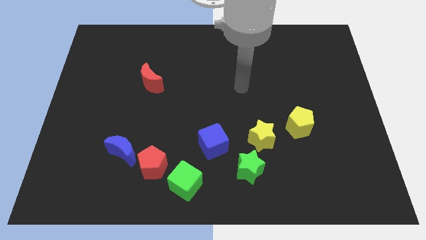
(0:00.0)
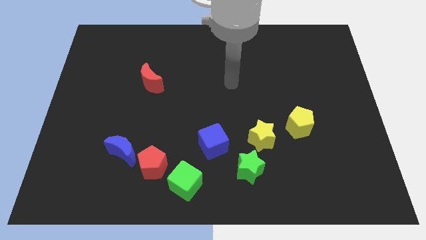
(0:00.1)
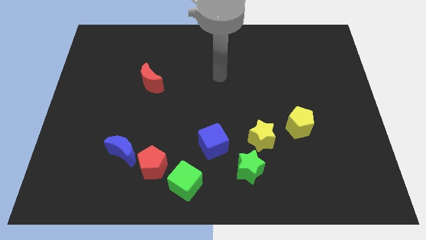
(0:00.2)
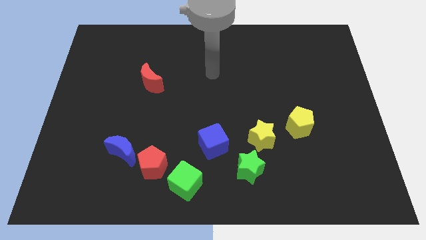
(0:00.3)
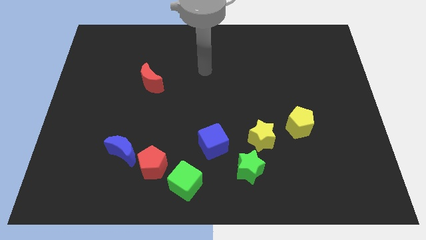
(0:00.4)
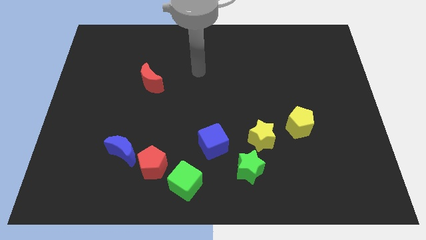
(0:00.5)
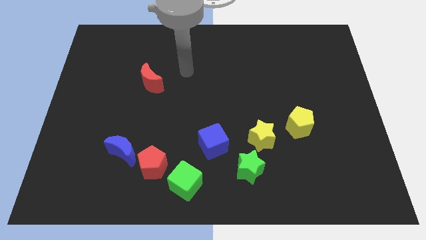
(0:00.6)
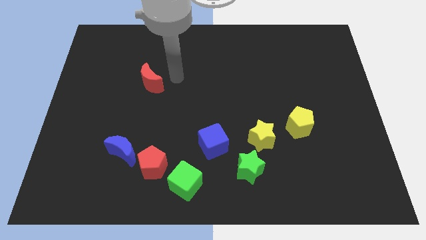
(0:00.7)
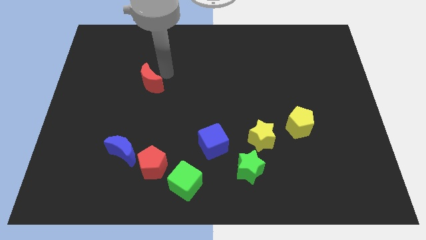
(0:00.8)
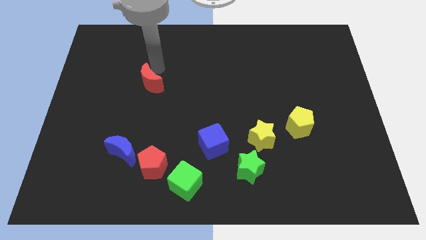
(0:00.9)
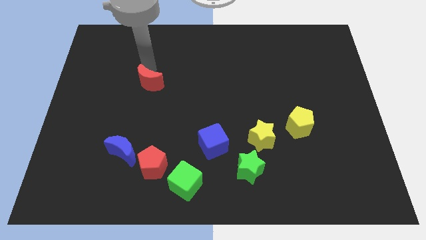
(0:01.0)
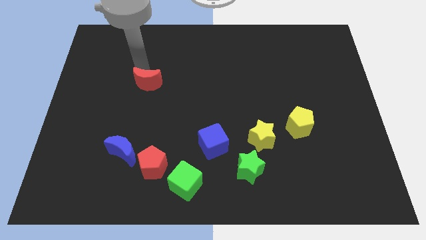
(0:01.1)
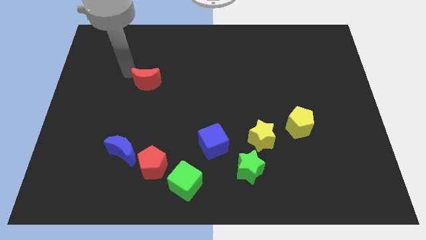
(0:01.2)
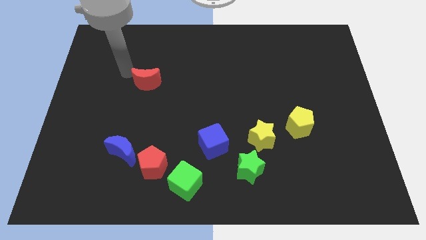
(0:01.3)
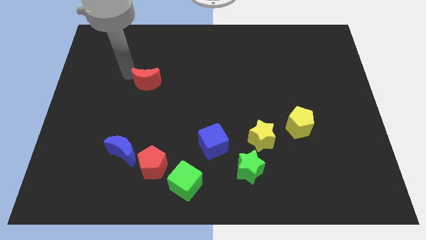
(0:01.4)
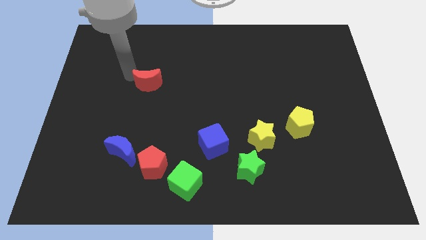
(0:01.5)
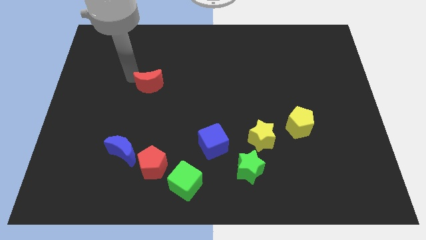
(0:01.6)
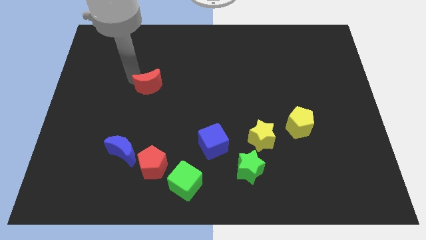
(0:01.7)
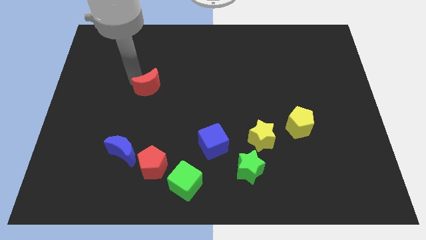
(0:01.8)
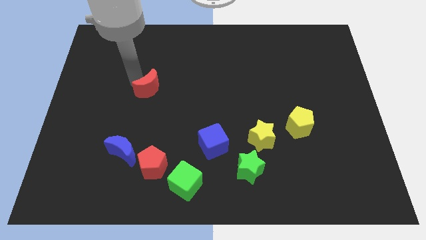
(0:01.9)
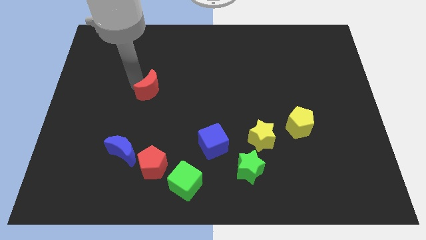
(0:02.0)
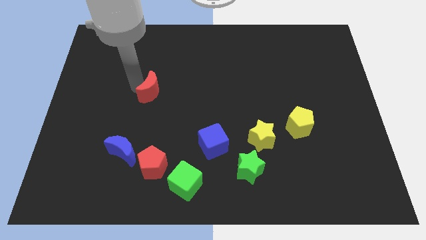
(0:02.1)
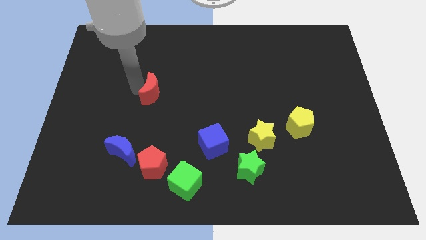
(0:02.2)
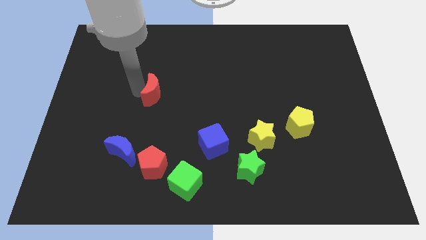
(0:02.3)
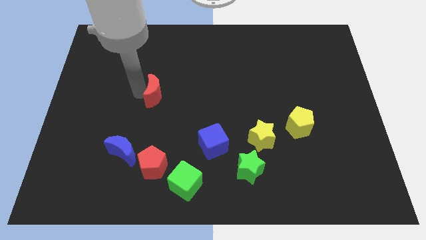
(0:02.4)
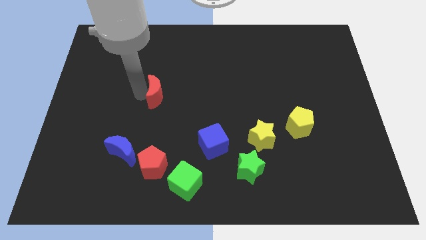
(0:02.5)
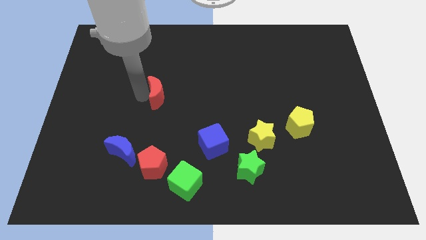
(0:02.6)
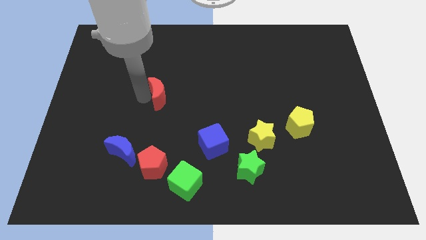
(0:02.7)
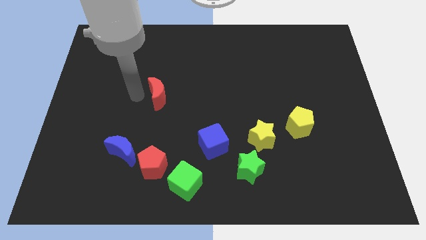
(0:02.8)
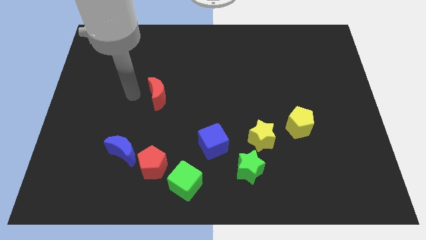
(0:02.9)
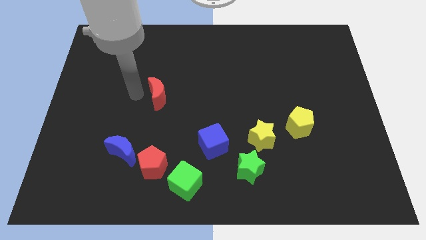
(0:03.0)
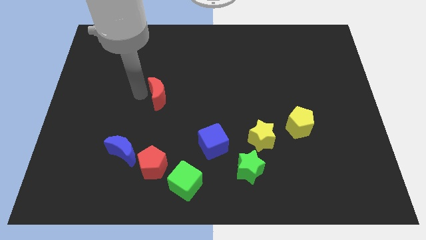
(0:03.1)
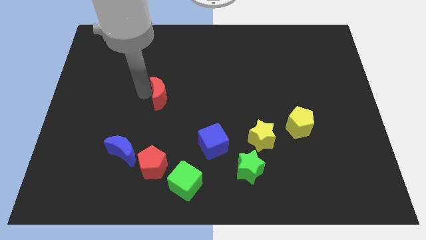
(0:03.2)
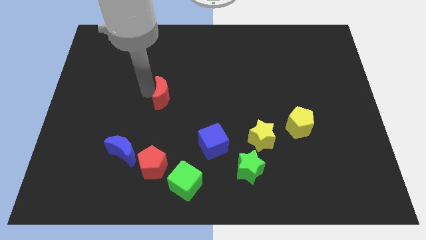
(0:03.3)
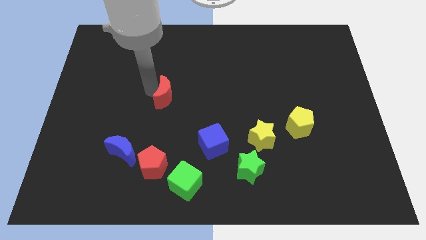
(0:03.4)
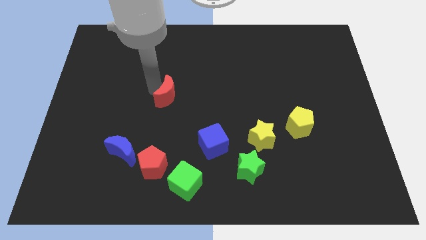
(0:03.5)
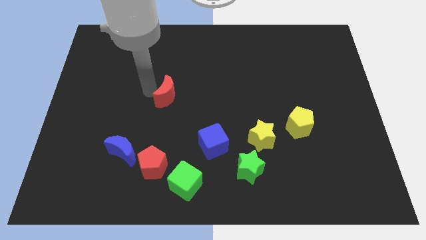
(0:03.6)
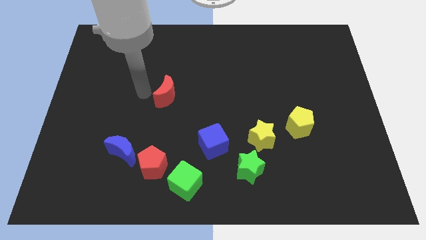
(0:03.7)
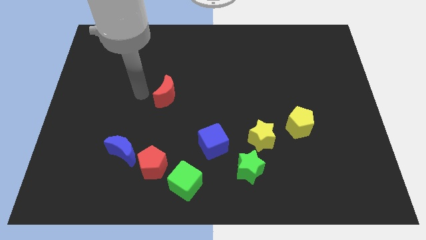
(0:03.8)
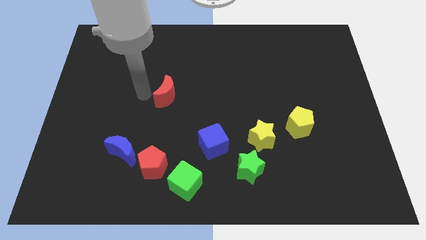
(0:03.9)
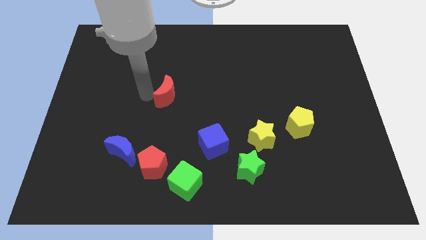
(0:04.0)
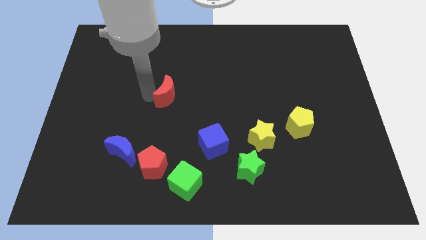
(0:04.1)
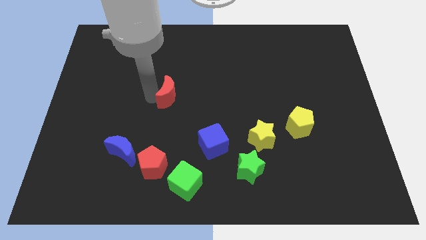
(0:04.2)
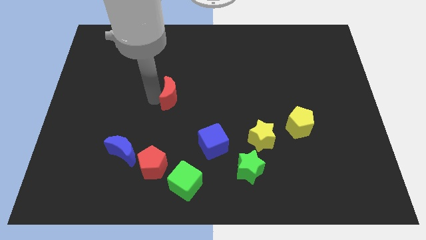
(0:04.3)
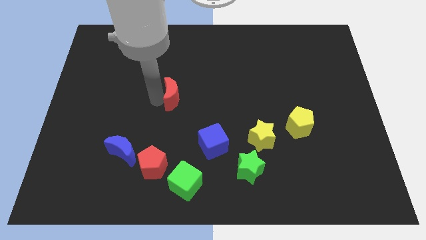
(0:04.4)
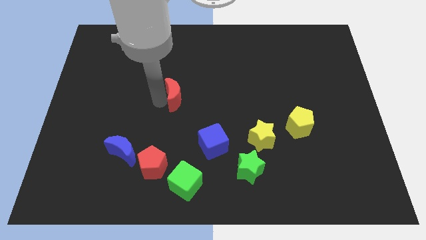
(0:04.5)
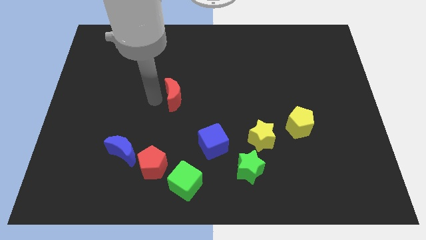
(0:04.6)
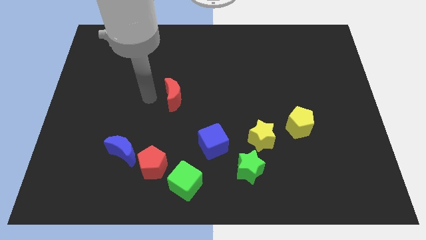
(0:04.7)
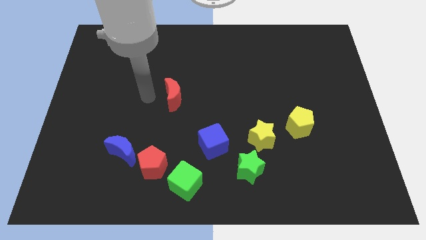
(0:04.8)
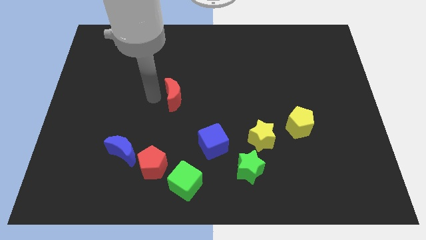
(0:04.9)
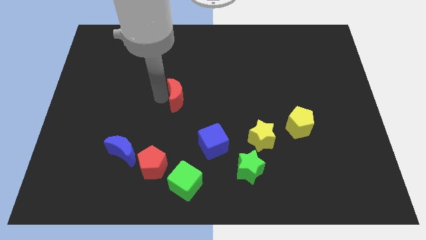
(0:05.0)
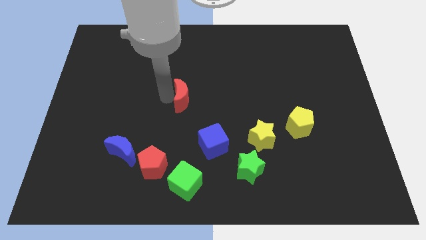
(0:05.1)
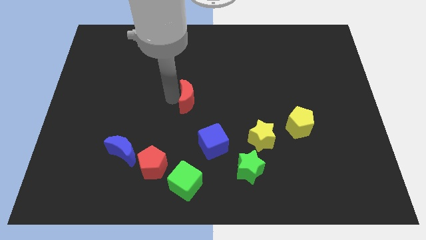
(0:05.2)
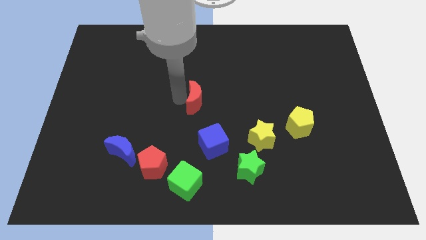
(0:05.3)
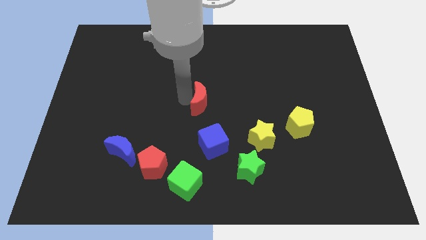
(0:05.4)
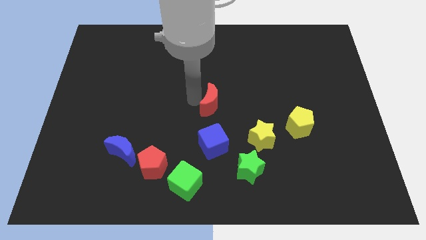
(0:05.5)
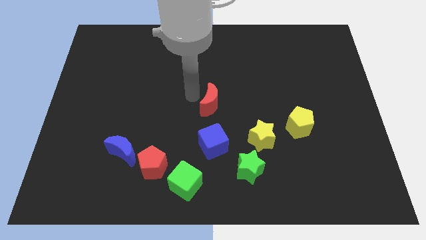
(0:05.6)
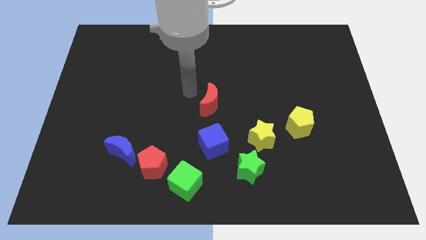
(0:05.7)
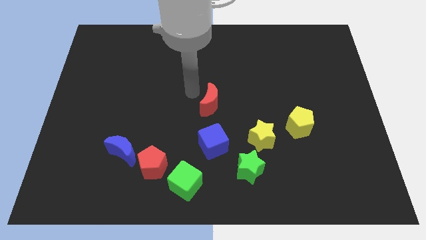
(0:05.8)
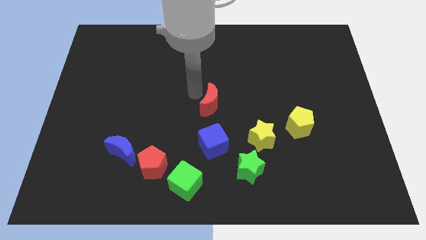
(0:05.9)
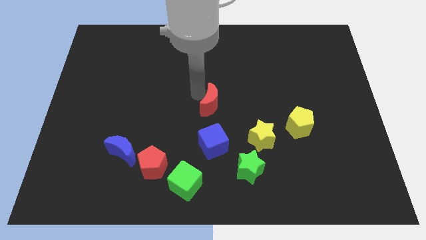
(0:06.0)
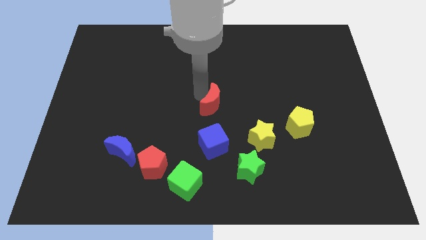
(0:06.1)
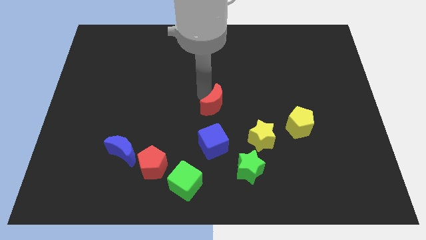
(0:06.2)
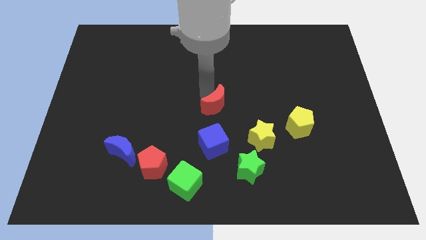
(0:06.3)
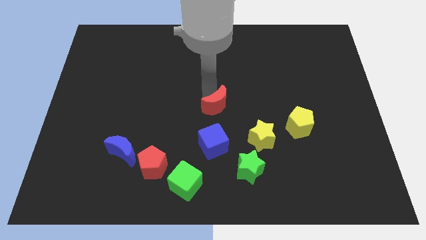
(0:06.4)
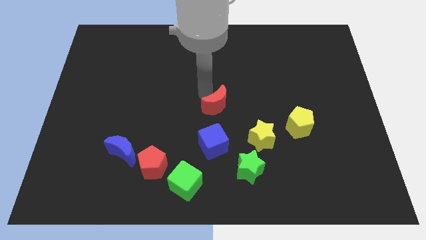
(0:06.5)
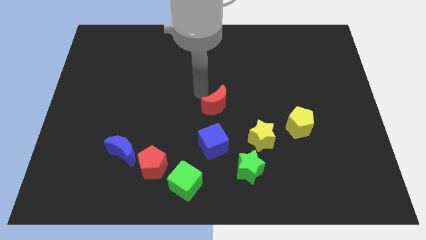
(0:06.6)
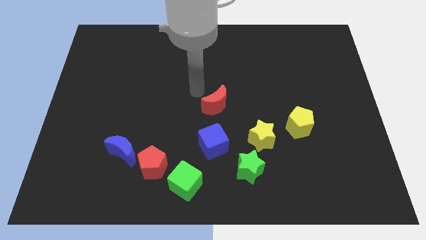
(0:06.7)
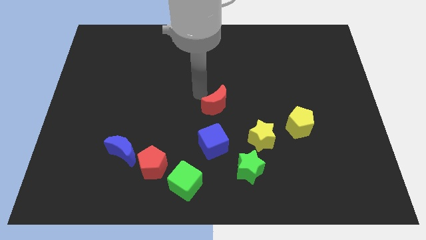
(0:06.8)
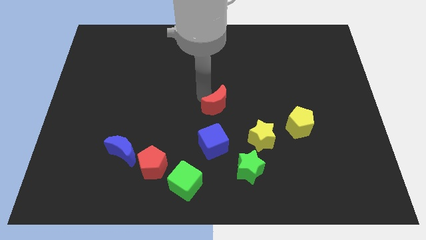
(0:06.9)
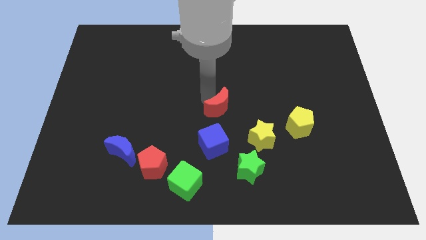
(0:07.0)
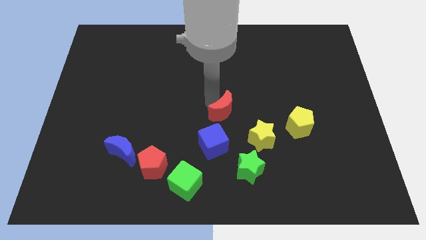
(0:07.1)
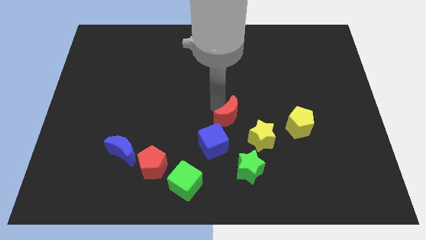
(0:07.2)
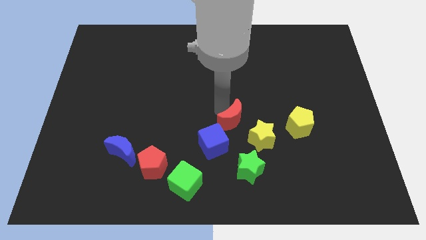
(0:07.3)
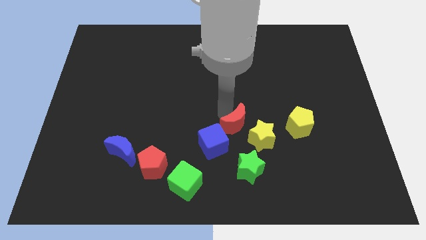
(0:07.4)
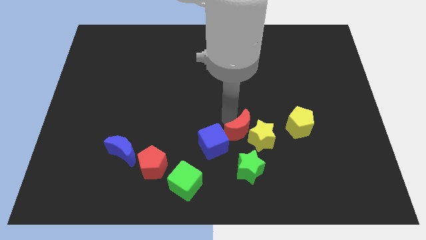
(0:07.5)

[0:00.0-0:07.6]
push the red moon to the yellow star

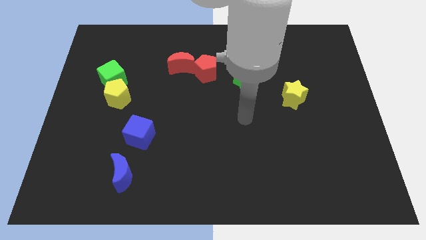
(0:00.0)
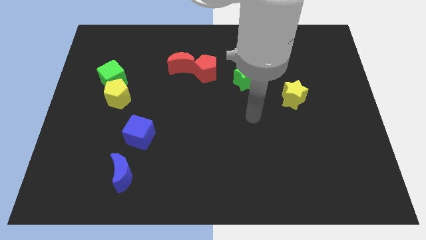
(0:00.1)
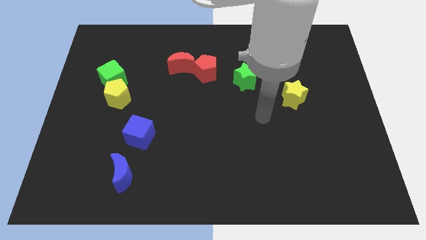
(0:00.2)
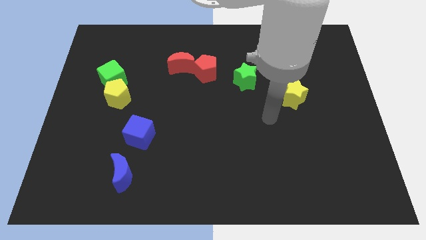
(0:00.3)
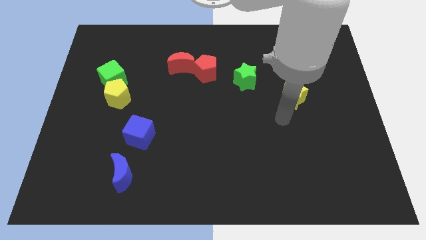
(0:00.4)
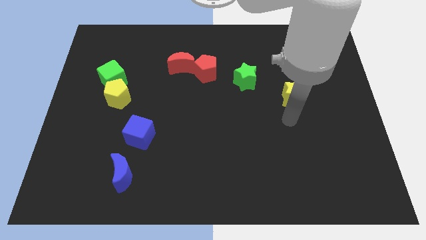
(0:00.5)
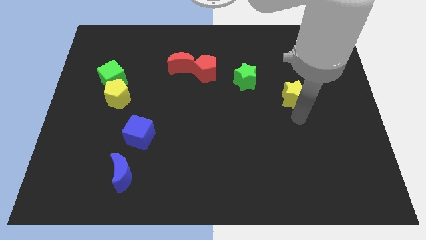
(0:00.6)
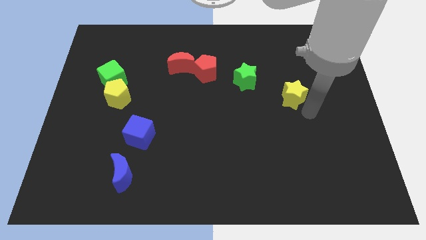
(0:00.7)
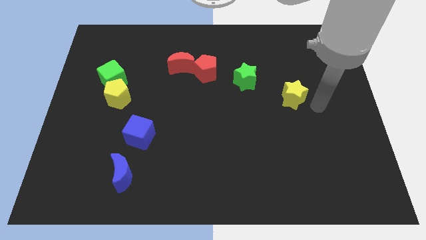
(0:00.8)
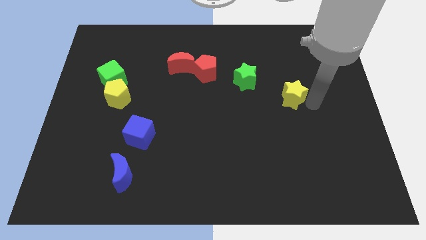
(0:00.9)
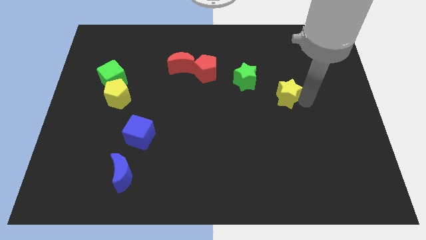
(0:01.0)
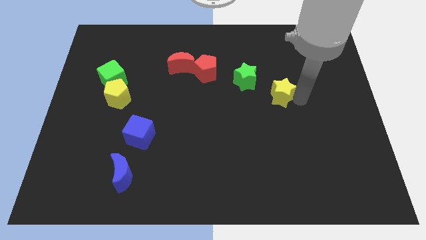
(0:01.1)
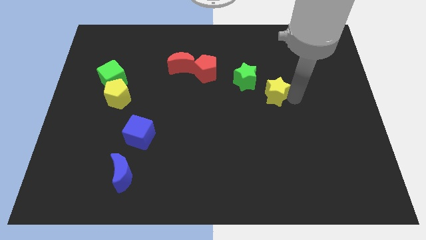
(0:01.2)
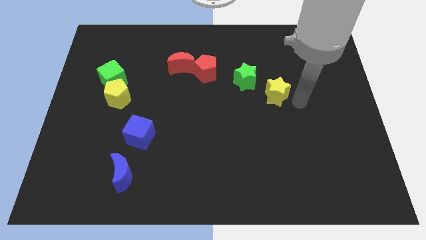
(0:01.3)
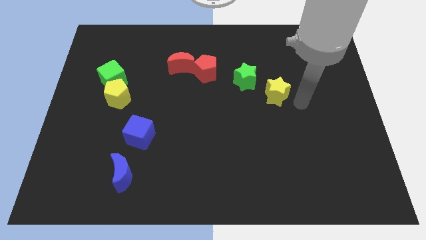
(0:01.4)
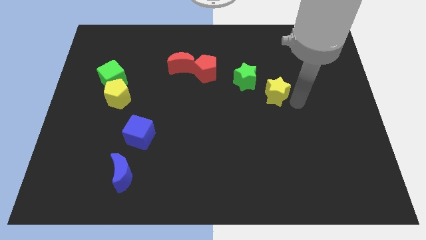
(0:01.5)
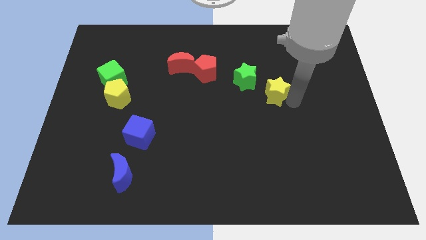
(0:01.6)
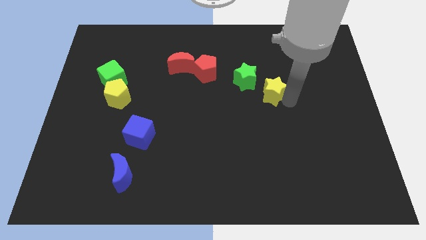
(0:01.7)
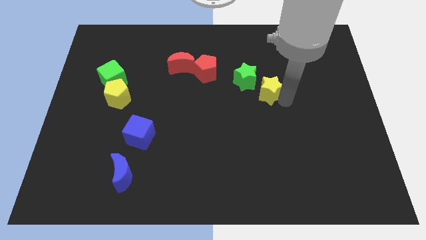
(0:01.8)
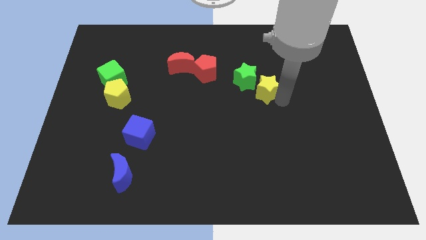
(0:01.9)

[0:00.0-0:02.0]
slide the yellow star to the green star
